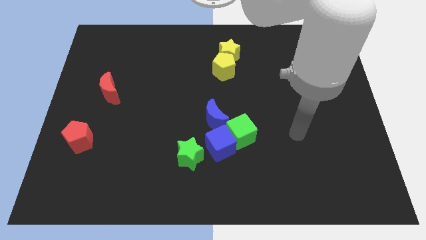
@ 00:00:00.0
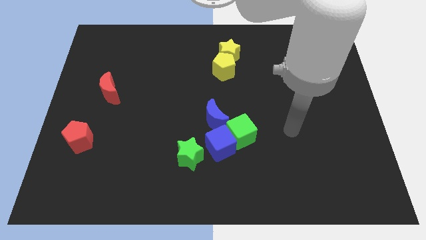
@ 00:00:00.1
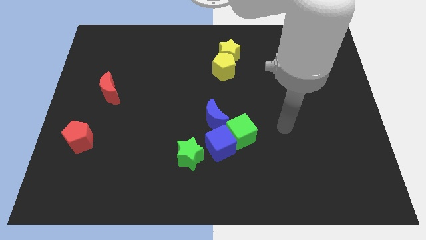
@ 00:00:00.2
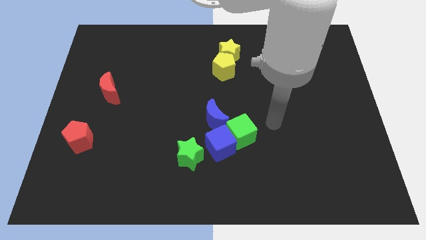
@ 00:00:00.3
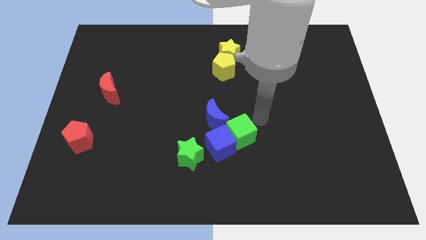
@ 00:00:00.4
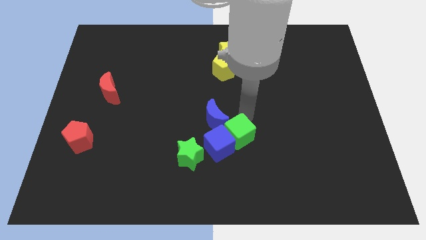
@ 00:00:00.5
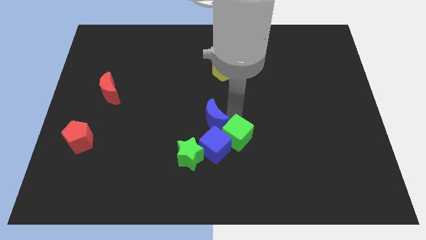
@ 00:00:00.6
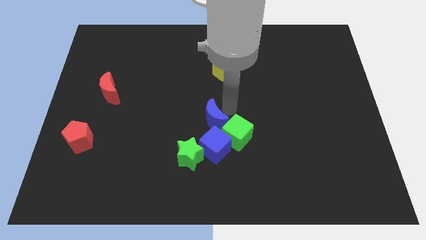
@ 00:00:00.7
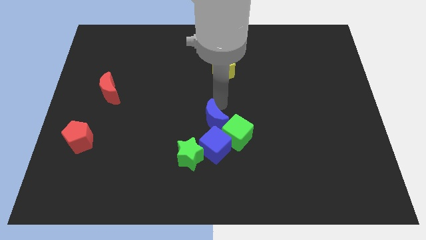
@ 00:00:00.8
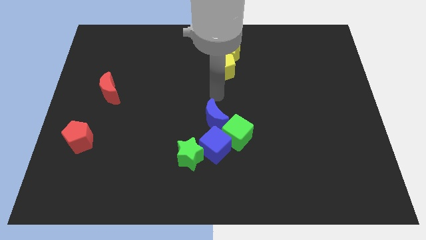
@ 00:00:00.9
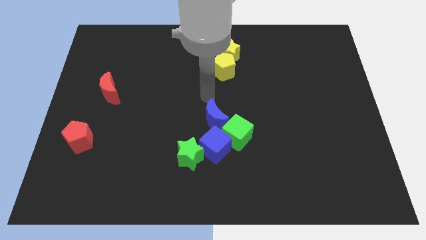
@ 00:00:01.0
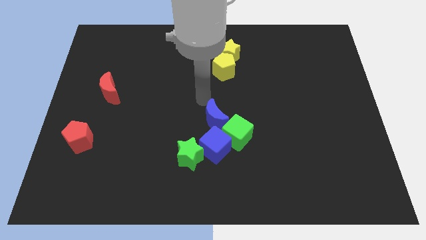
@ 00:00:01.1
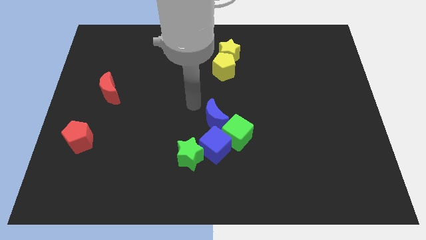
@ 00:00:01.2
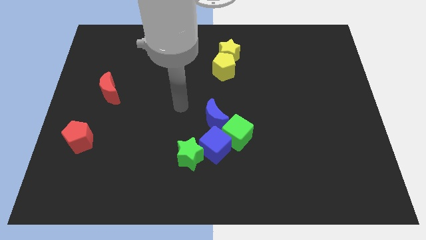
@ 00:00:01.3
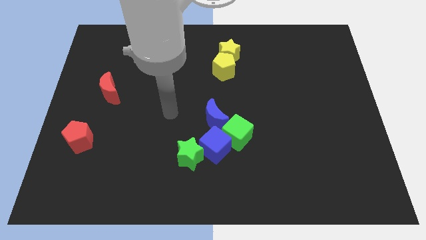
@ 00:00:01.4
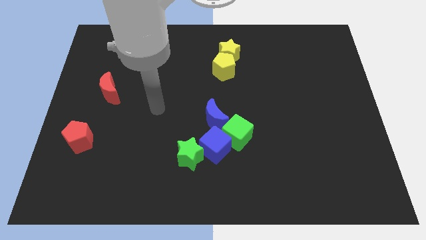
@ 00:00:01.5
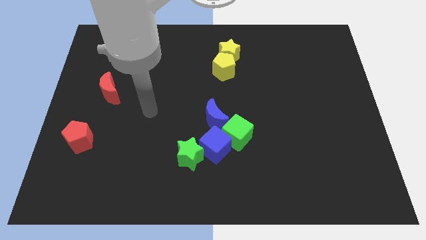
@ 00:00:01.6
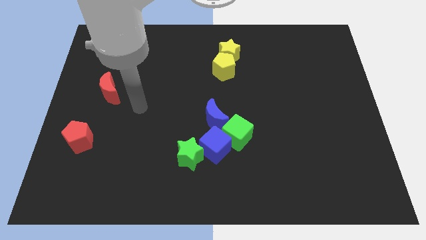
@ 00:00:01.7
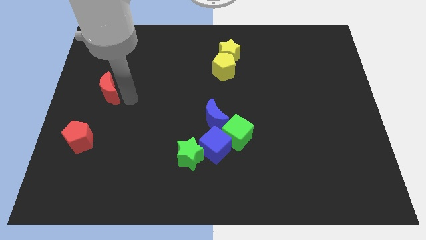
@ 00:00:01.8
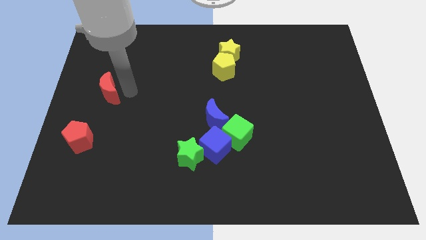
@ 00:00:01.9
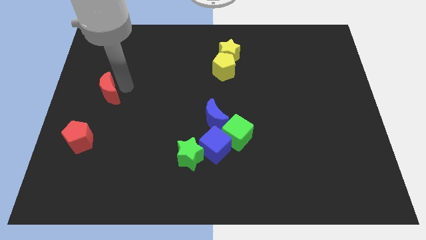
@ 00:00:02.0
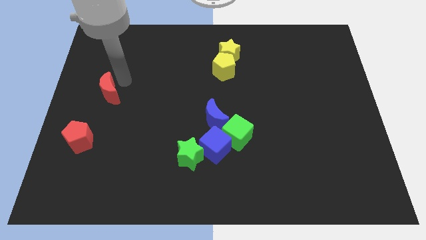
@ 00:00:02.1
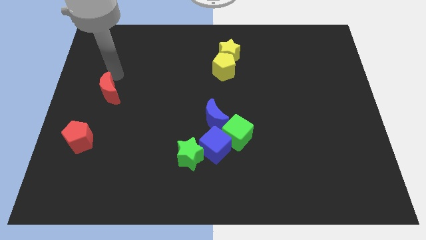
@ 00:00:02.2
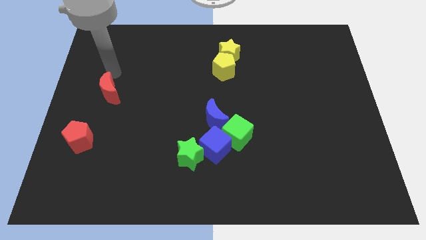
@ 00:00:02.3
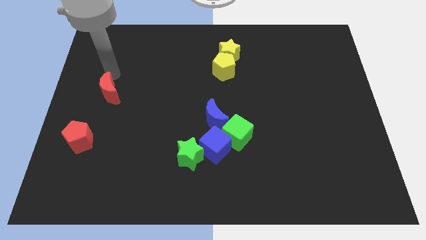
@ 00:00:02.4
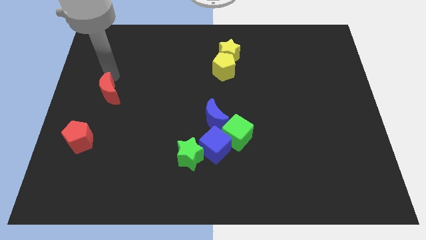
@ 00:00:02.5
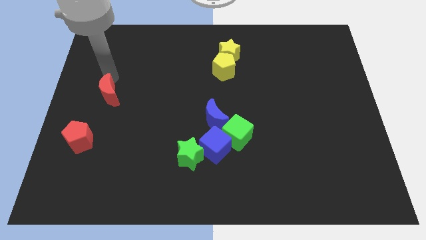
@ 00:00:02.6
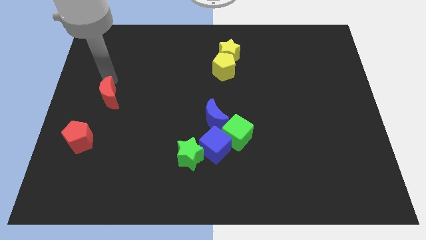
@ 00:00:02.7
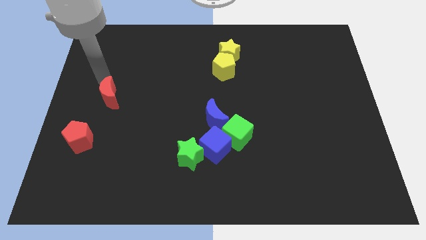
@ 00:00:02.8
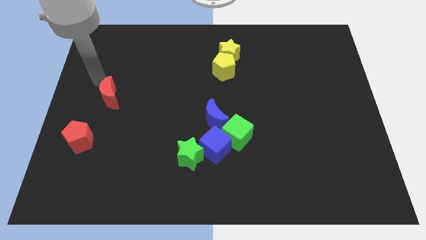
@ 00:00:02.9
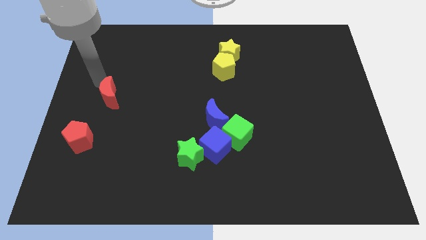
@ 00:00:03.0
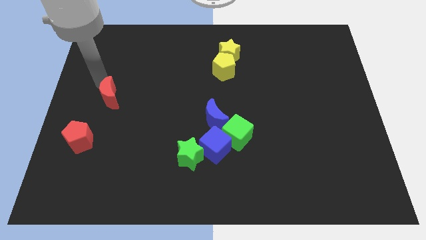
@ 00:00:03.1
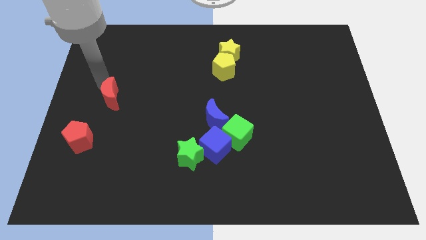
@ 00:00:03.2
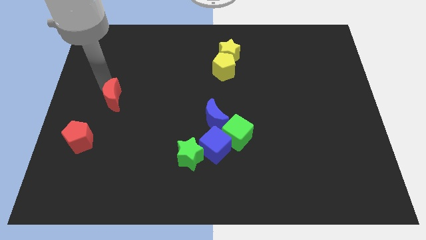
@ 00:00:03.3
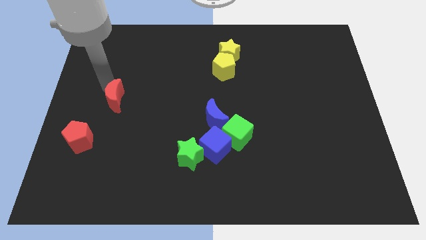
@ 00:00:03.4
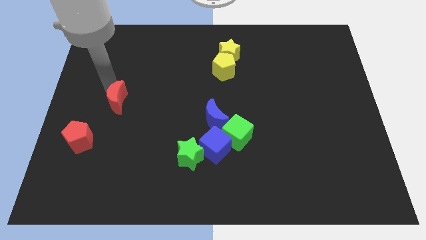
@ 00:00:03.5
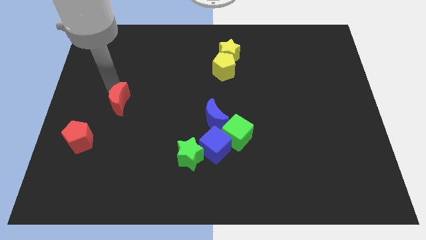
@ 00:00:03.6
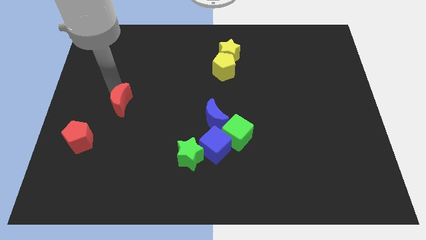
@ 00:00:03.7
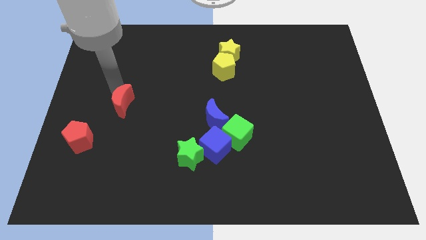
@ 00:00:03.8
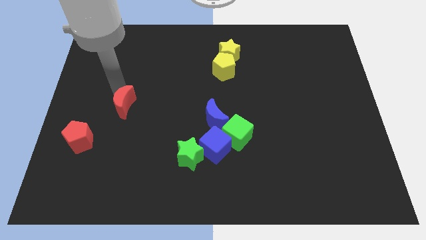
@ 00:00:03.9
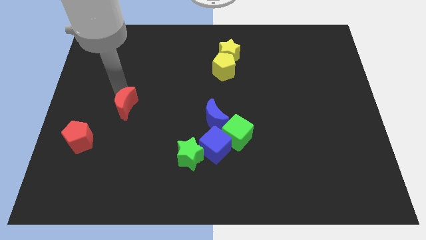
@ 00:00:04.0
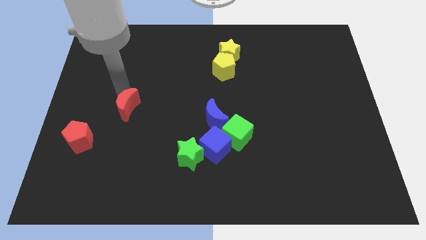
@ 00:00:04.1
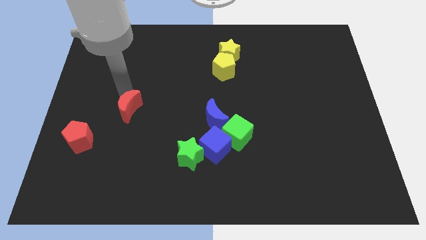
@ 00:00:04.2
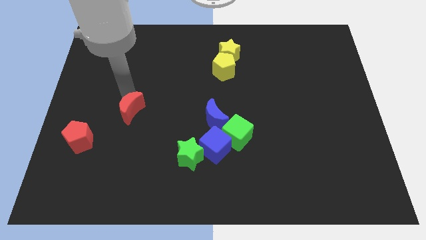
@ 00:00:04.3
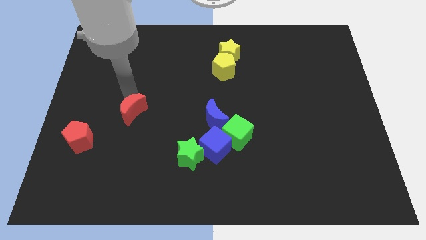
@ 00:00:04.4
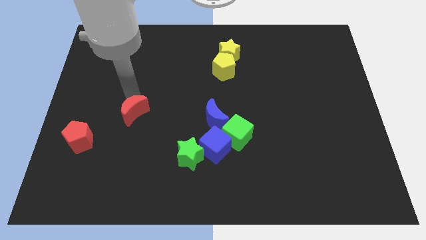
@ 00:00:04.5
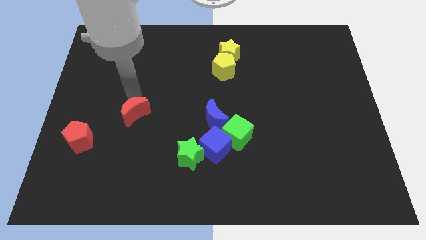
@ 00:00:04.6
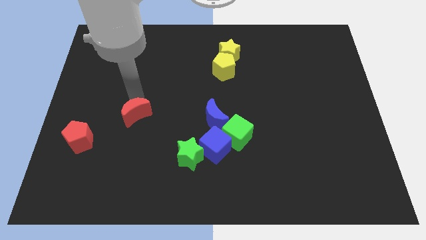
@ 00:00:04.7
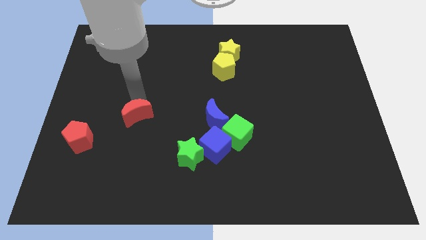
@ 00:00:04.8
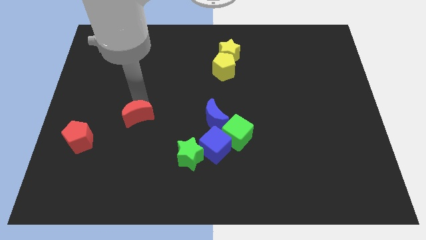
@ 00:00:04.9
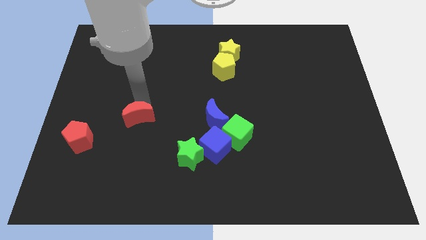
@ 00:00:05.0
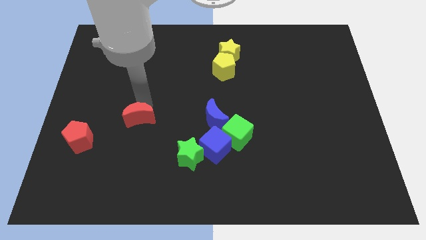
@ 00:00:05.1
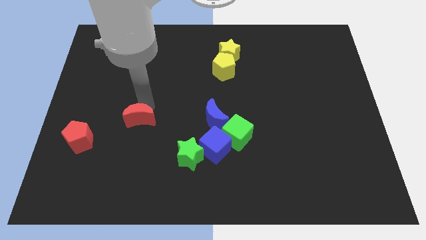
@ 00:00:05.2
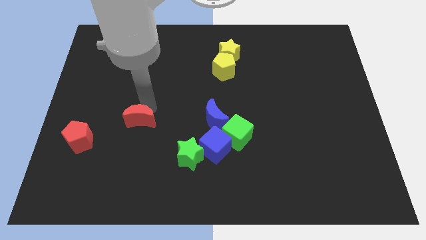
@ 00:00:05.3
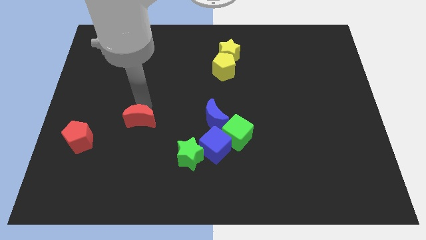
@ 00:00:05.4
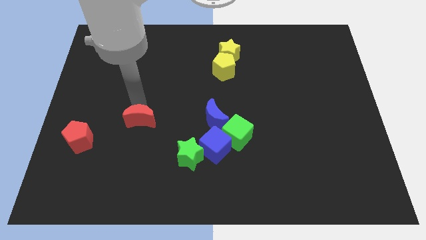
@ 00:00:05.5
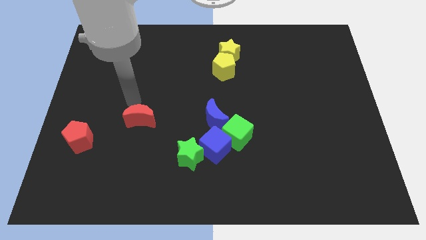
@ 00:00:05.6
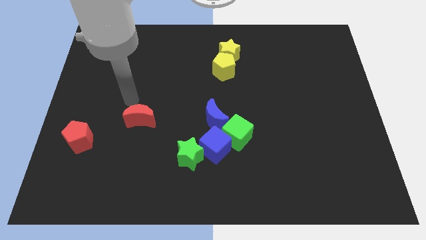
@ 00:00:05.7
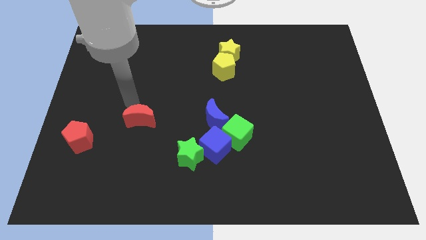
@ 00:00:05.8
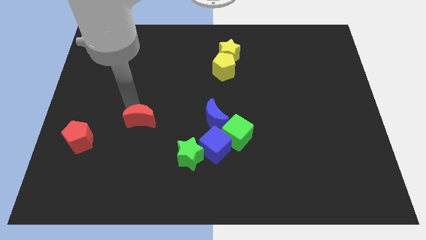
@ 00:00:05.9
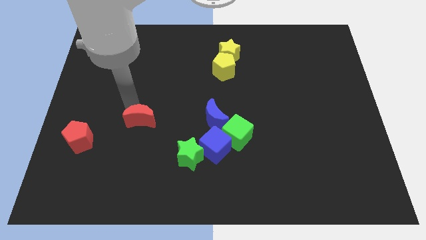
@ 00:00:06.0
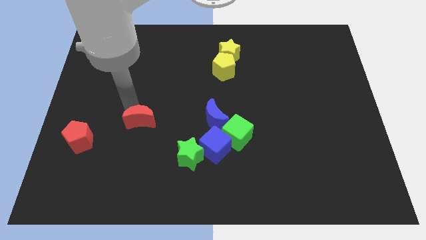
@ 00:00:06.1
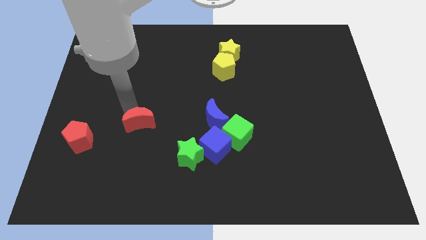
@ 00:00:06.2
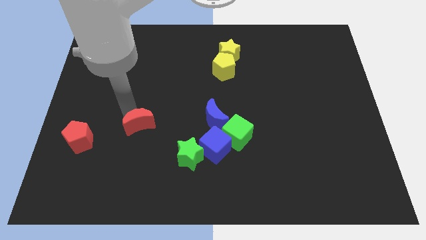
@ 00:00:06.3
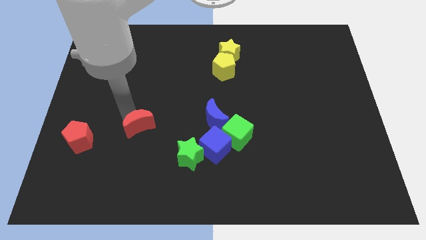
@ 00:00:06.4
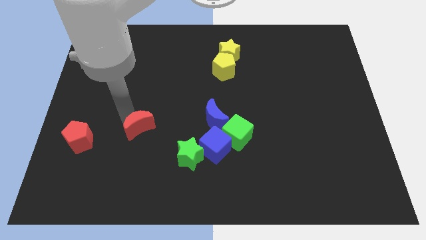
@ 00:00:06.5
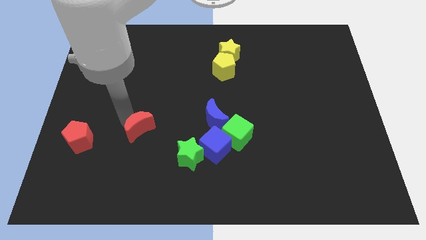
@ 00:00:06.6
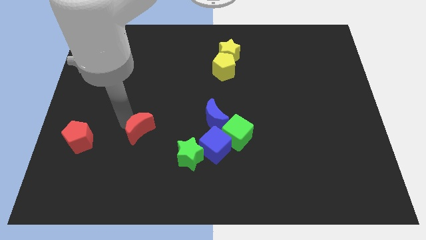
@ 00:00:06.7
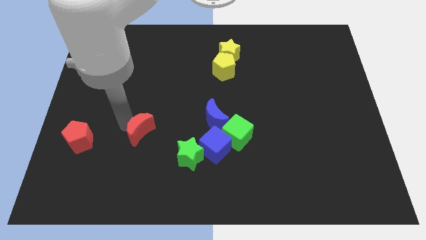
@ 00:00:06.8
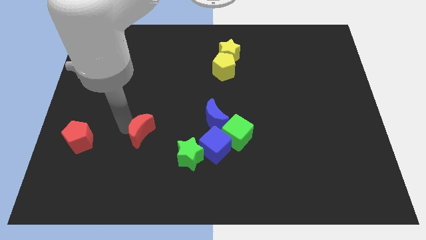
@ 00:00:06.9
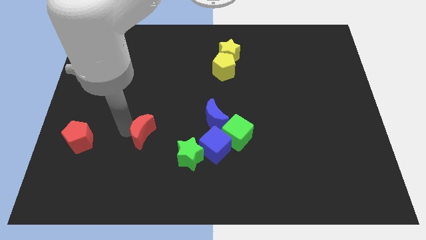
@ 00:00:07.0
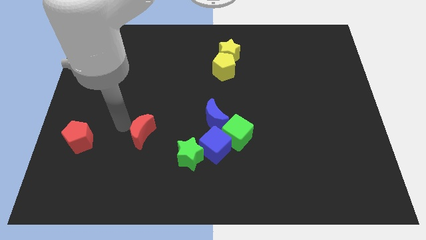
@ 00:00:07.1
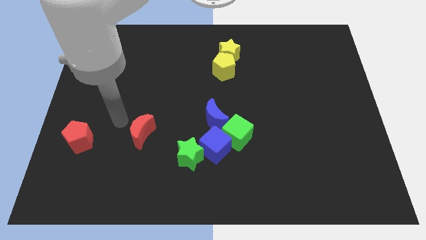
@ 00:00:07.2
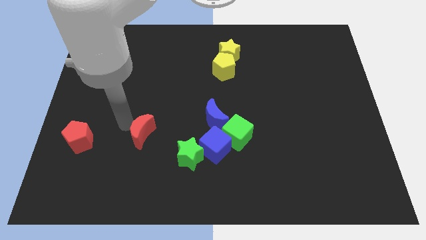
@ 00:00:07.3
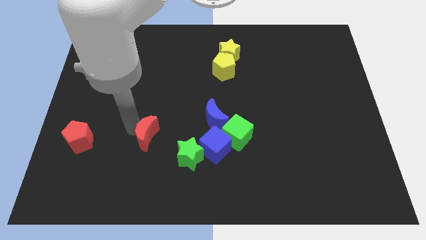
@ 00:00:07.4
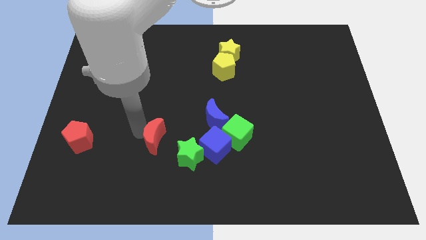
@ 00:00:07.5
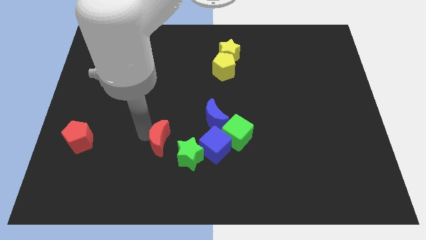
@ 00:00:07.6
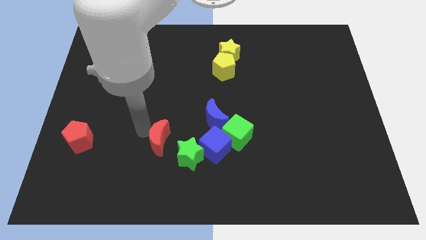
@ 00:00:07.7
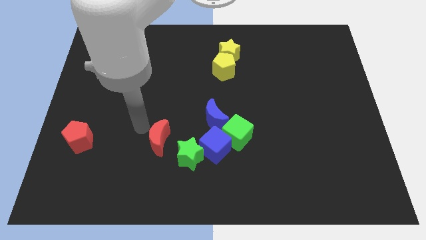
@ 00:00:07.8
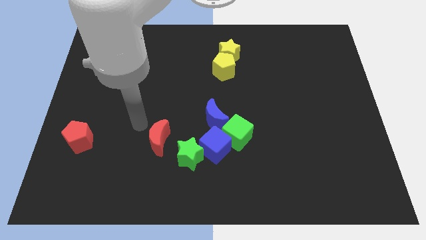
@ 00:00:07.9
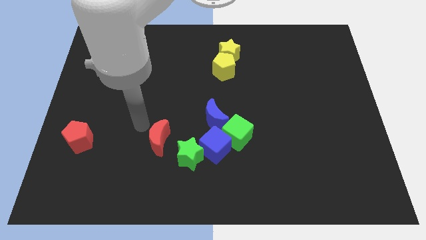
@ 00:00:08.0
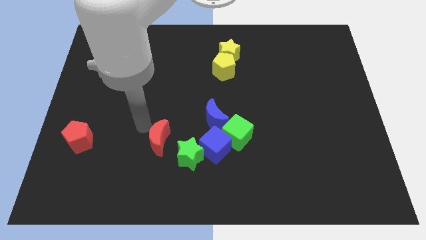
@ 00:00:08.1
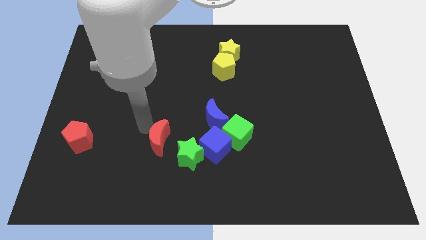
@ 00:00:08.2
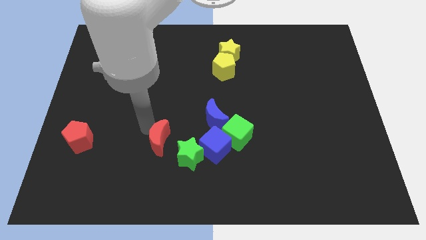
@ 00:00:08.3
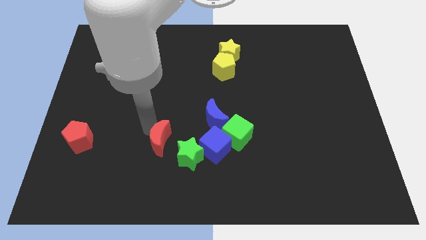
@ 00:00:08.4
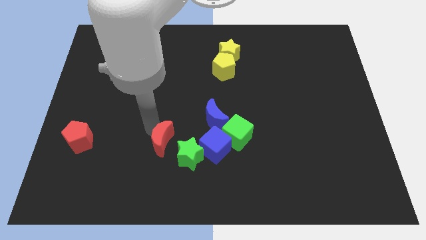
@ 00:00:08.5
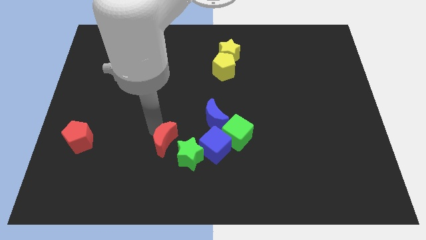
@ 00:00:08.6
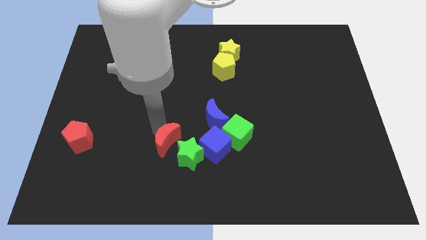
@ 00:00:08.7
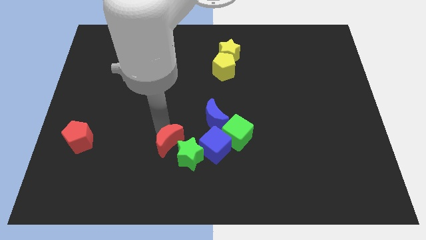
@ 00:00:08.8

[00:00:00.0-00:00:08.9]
put the red moon next to the green star
